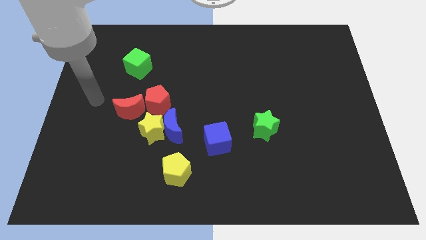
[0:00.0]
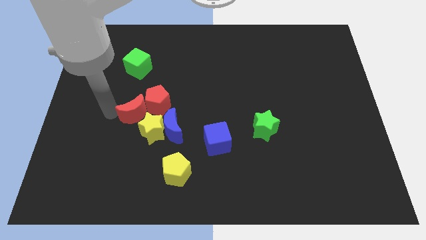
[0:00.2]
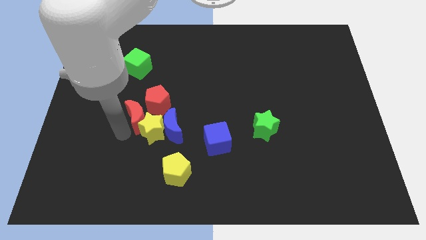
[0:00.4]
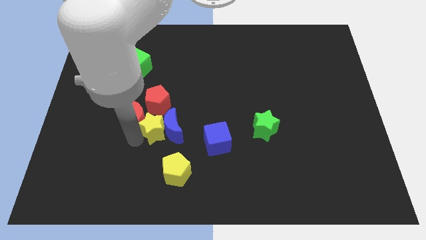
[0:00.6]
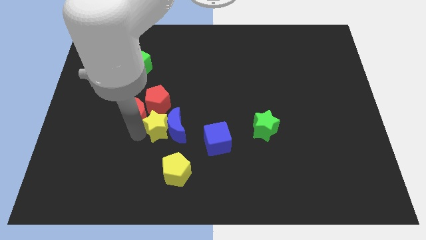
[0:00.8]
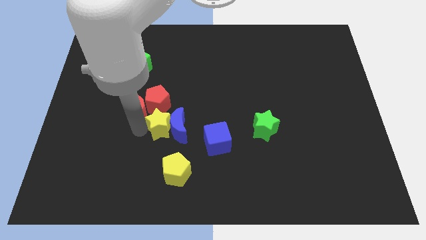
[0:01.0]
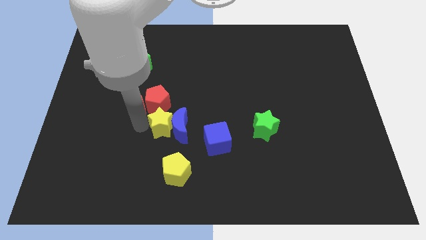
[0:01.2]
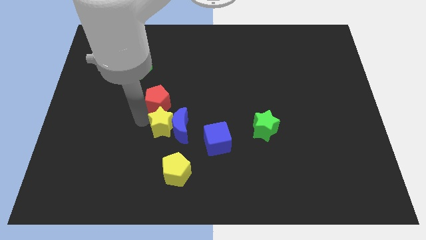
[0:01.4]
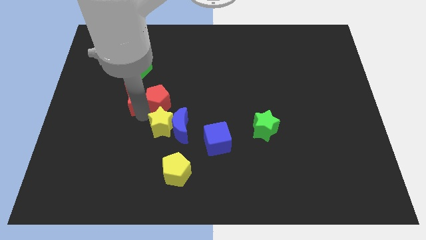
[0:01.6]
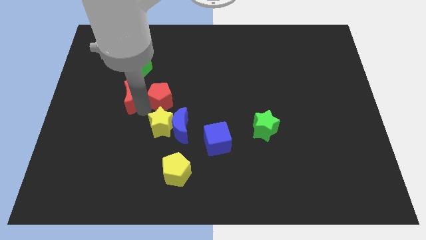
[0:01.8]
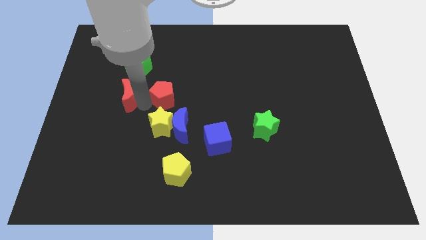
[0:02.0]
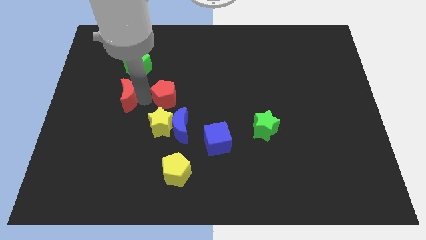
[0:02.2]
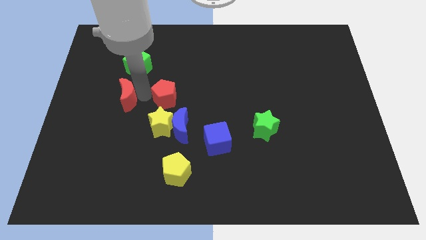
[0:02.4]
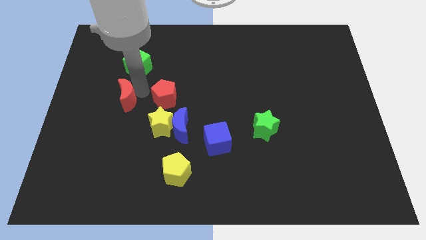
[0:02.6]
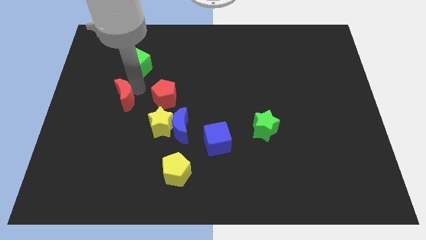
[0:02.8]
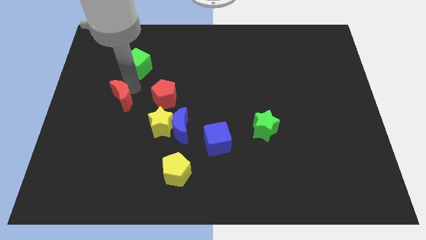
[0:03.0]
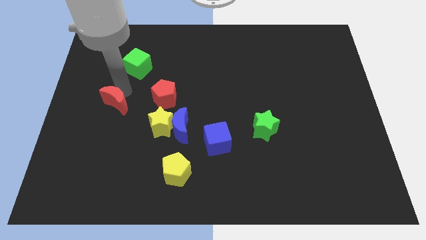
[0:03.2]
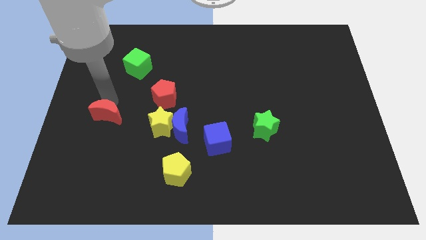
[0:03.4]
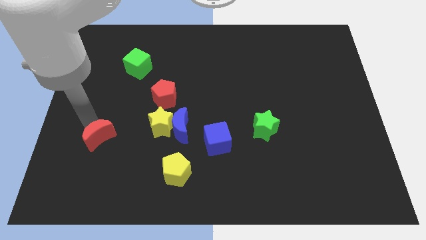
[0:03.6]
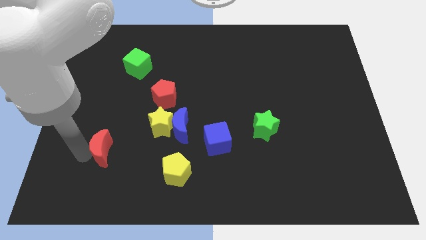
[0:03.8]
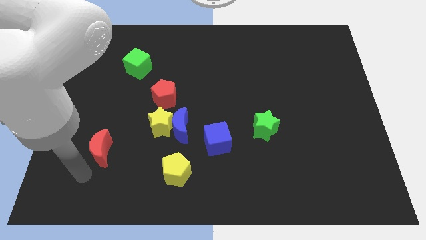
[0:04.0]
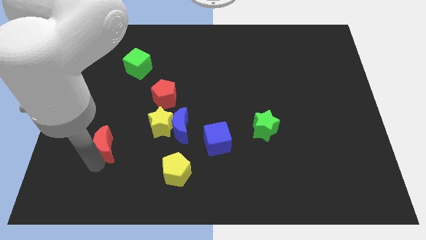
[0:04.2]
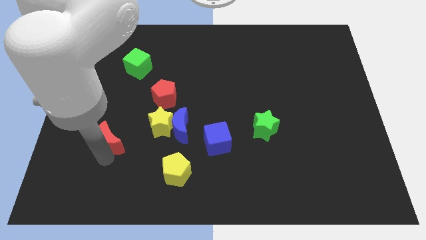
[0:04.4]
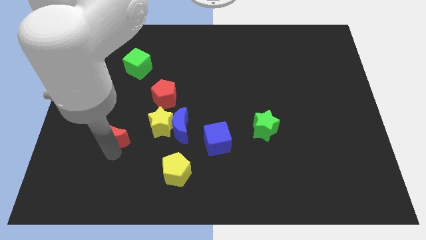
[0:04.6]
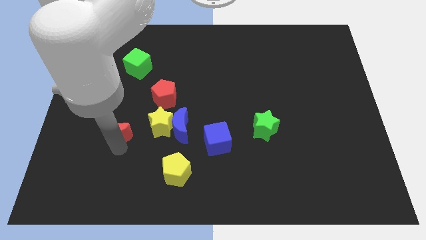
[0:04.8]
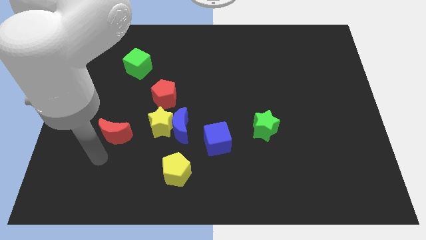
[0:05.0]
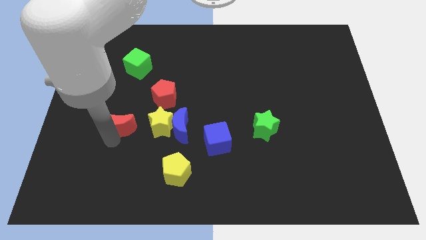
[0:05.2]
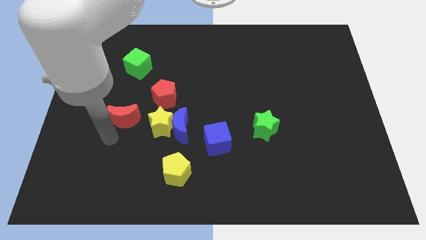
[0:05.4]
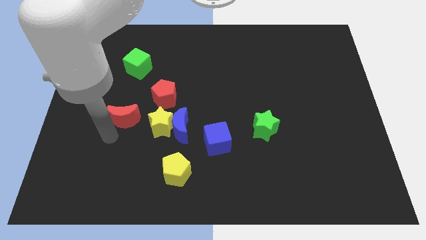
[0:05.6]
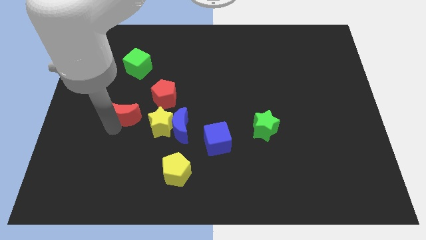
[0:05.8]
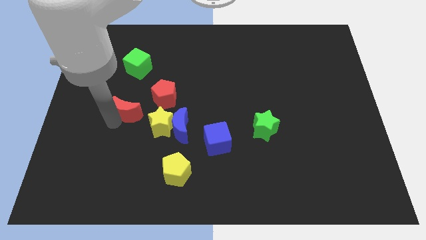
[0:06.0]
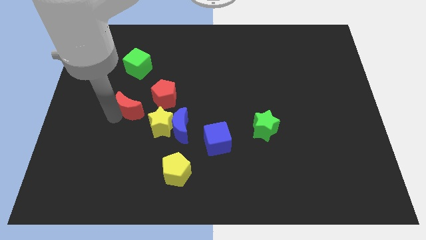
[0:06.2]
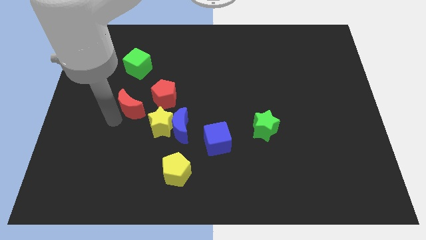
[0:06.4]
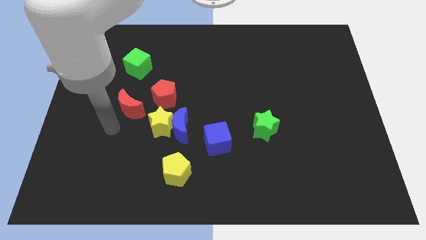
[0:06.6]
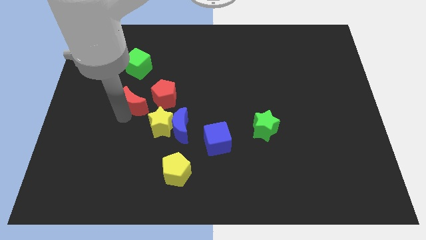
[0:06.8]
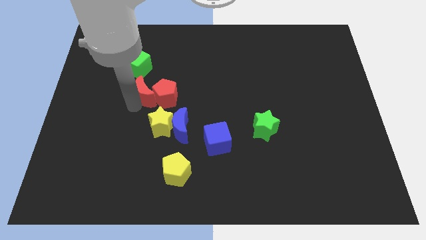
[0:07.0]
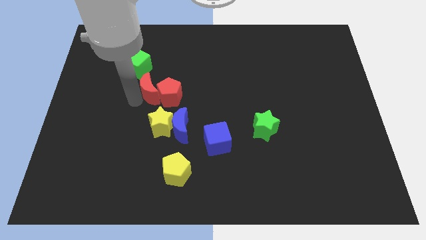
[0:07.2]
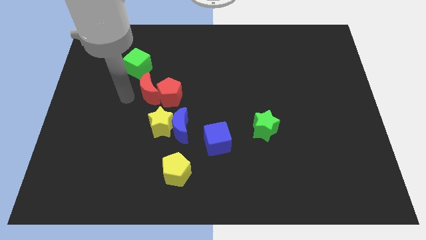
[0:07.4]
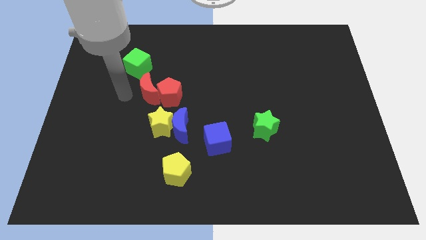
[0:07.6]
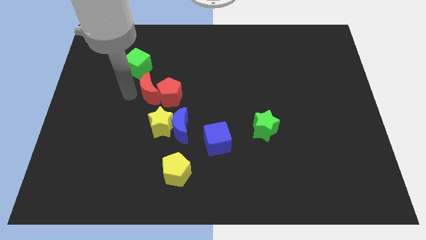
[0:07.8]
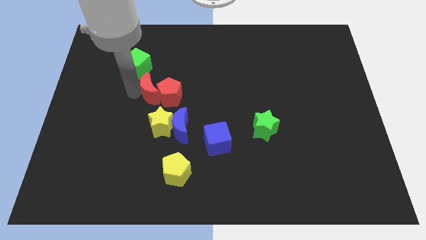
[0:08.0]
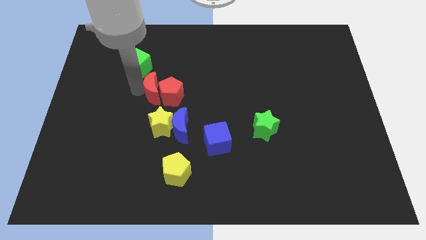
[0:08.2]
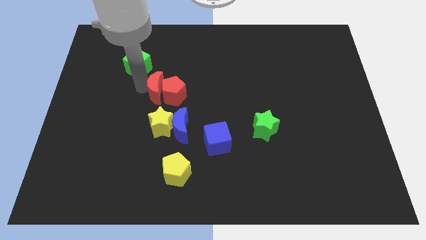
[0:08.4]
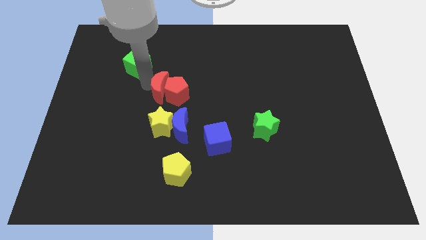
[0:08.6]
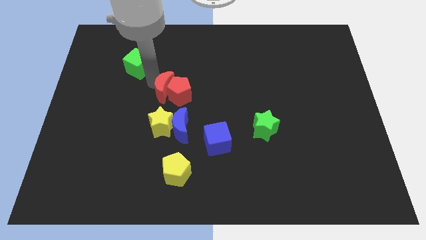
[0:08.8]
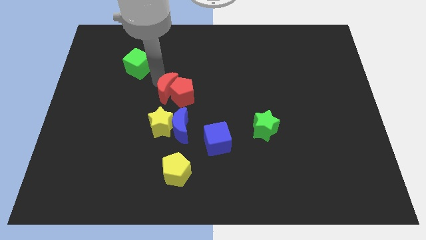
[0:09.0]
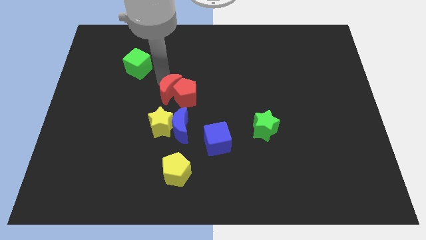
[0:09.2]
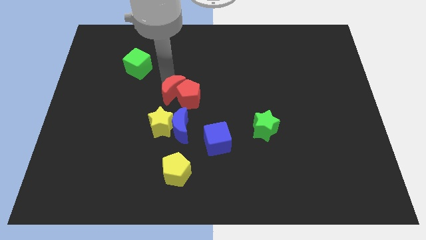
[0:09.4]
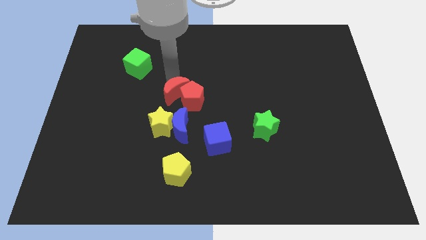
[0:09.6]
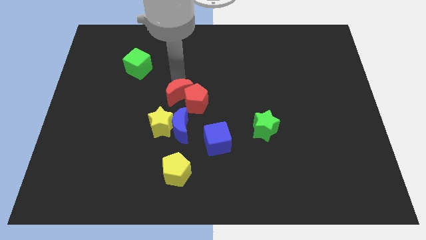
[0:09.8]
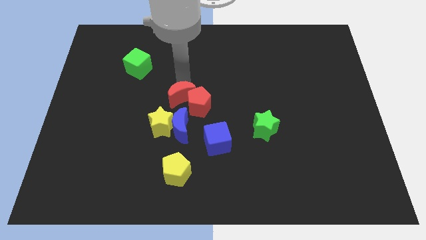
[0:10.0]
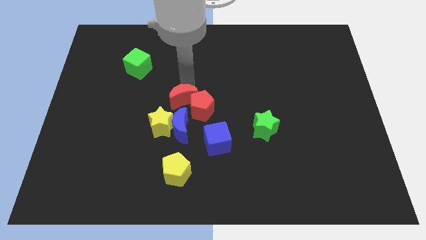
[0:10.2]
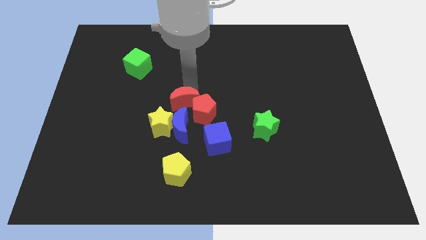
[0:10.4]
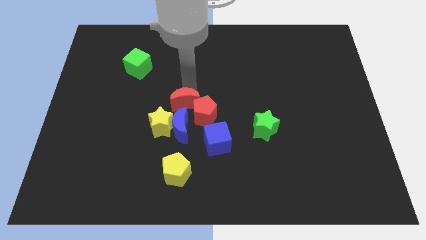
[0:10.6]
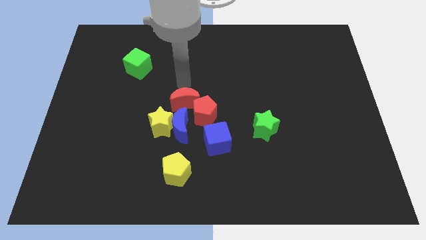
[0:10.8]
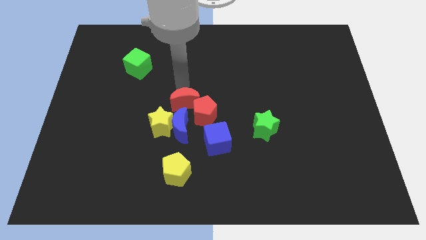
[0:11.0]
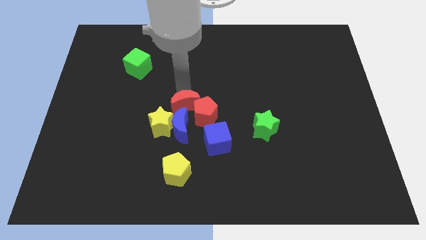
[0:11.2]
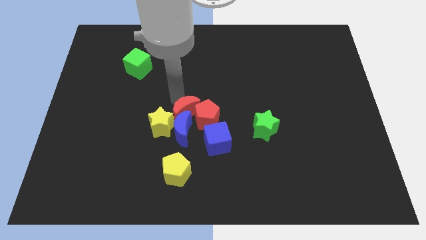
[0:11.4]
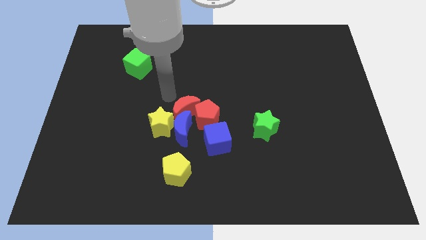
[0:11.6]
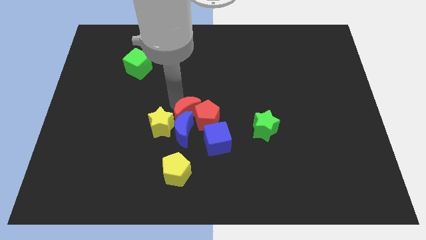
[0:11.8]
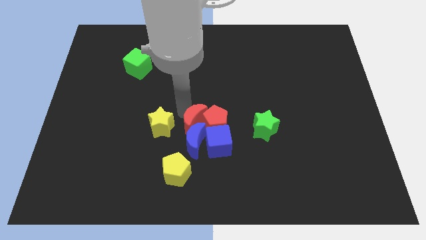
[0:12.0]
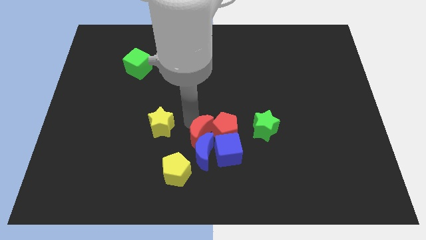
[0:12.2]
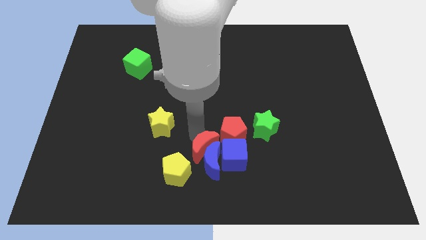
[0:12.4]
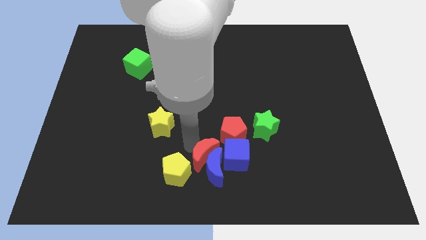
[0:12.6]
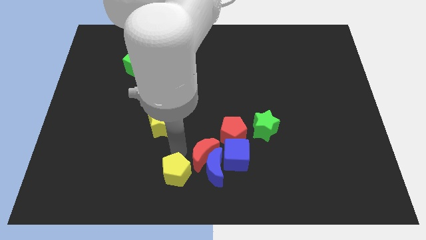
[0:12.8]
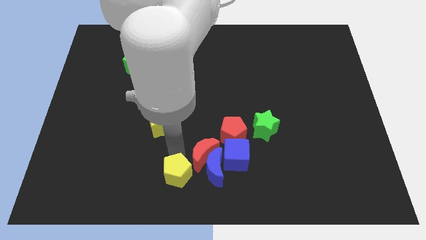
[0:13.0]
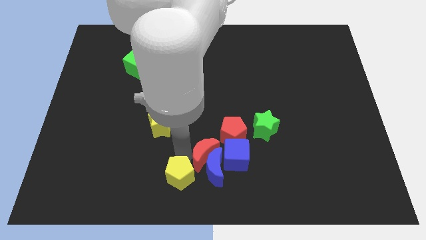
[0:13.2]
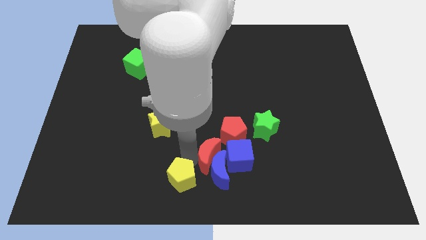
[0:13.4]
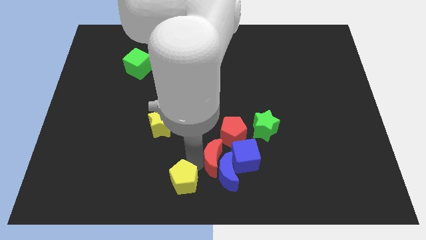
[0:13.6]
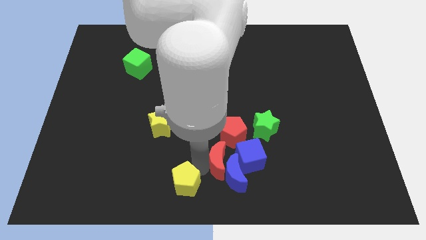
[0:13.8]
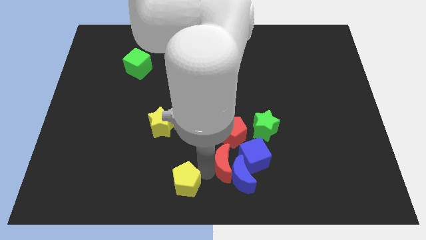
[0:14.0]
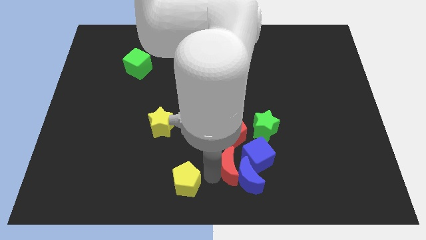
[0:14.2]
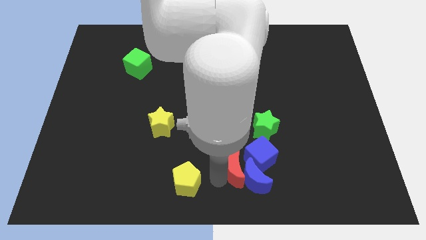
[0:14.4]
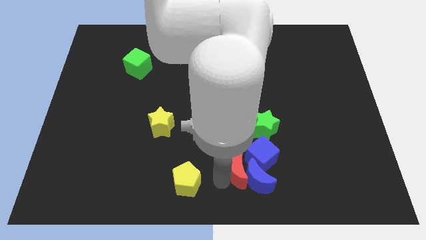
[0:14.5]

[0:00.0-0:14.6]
push the red moon towards the blue cube
